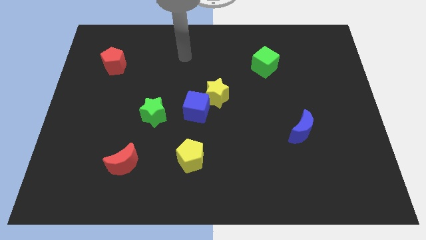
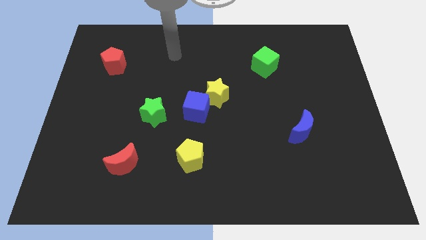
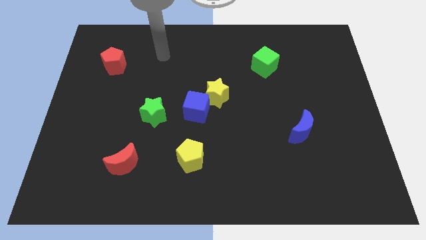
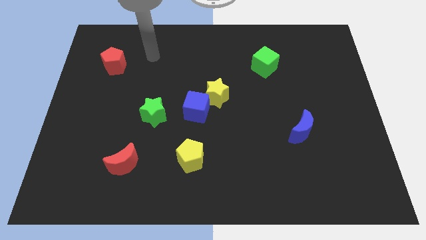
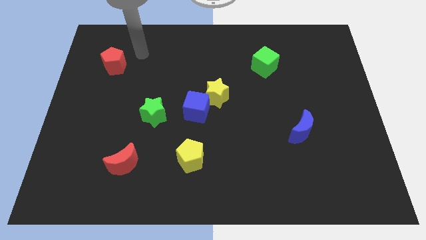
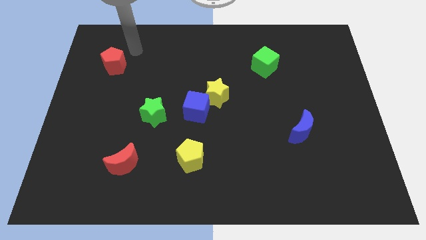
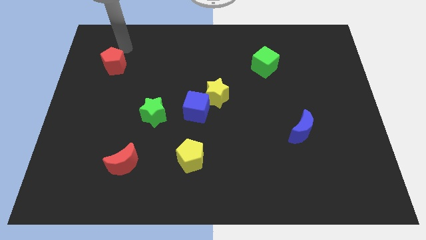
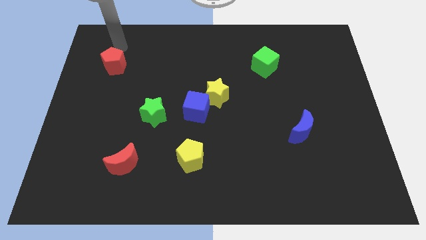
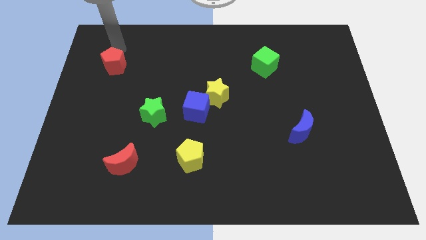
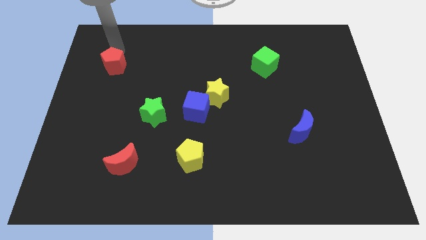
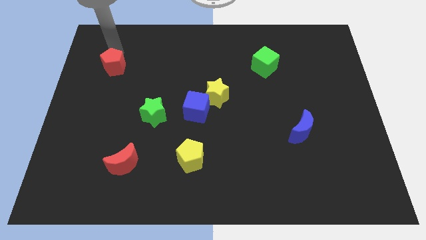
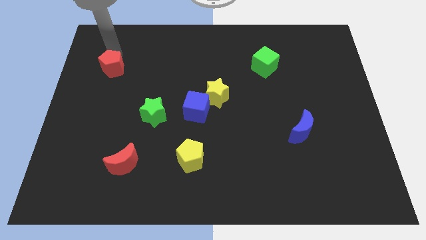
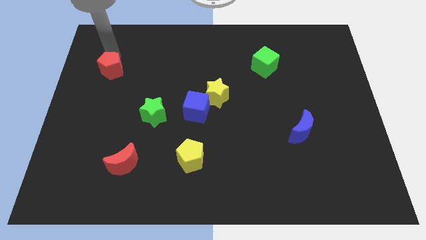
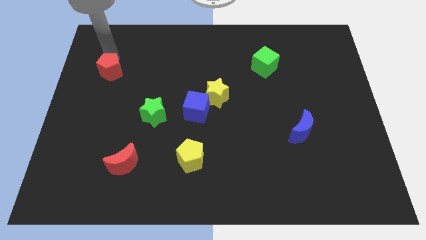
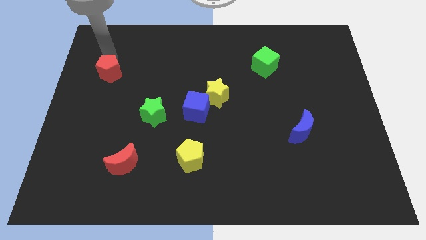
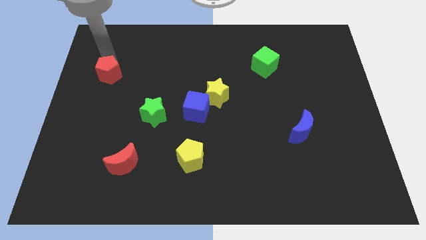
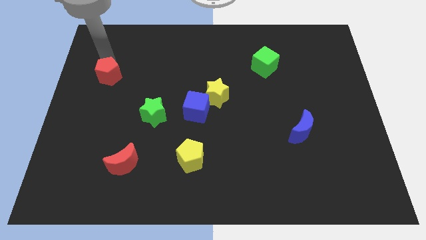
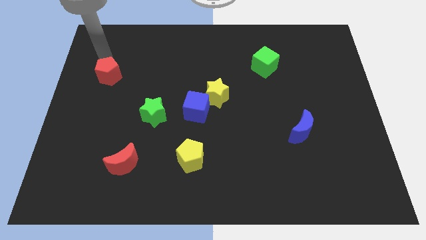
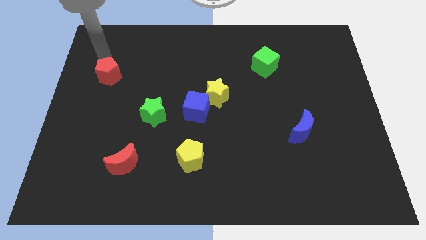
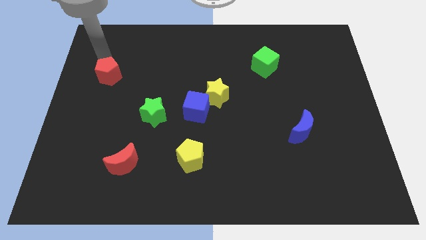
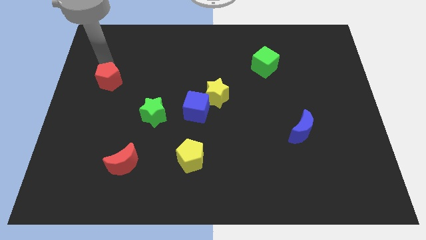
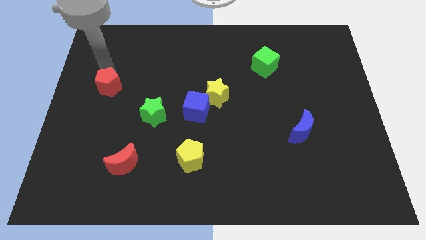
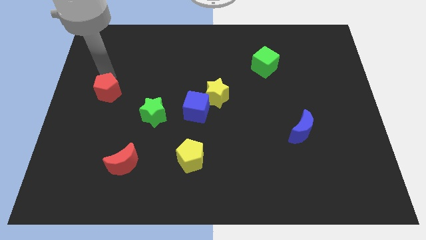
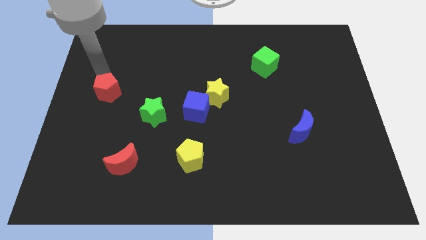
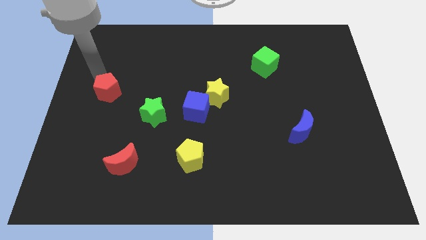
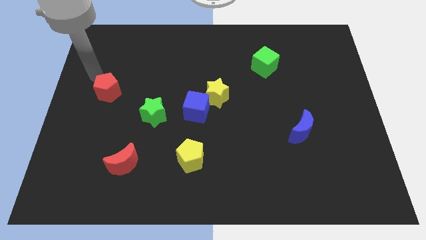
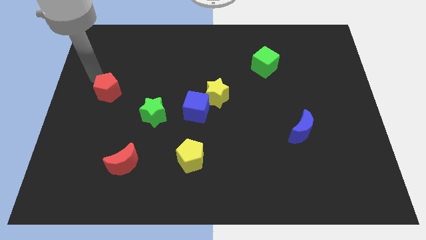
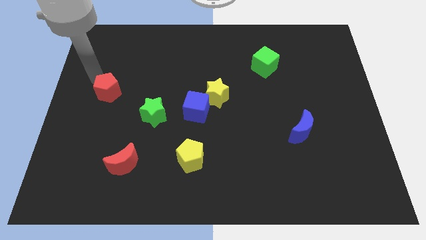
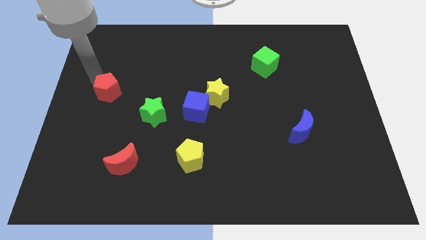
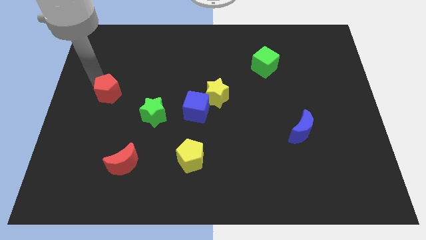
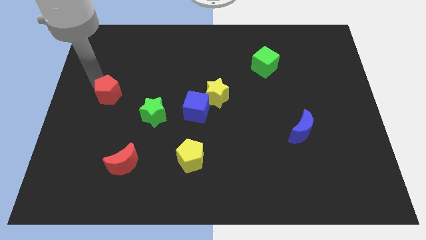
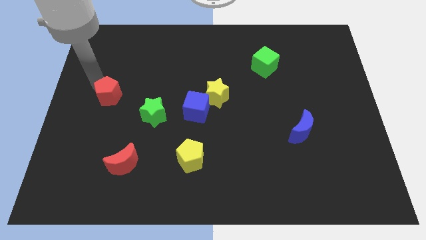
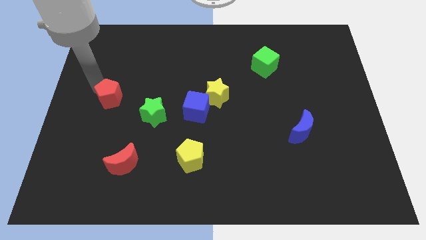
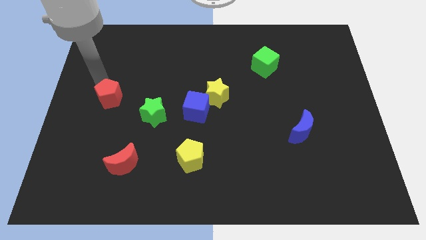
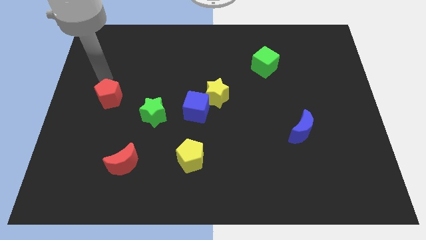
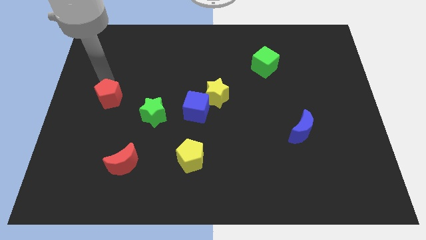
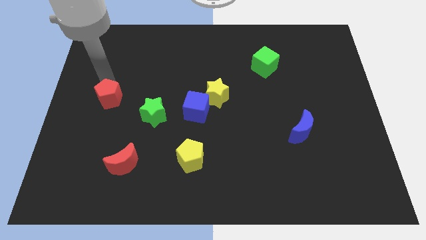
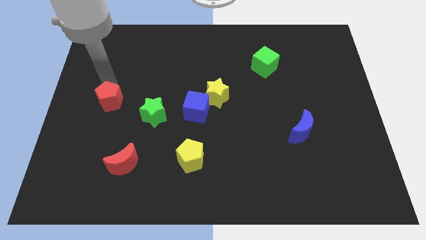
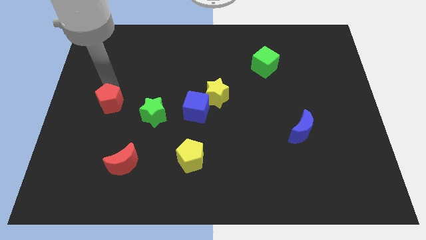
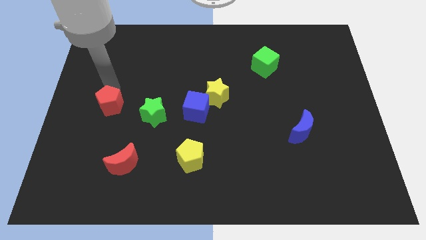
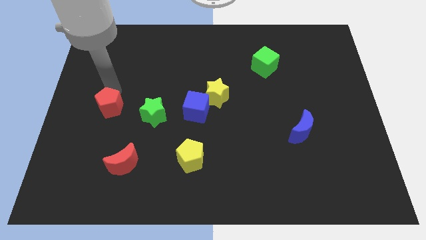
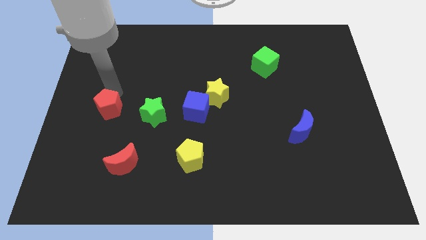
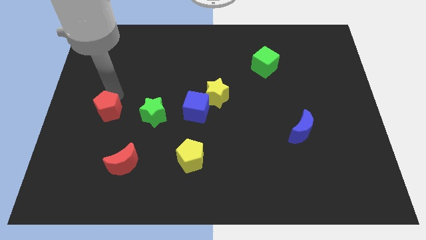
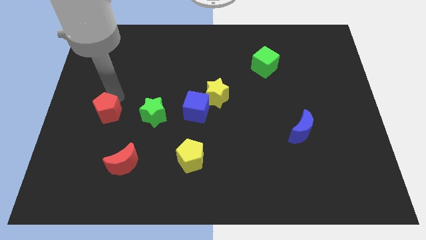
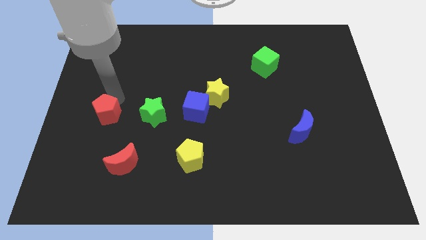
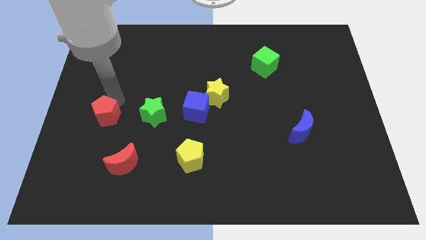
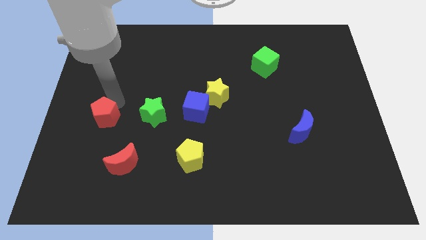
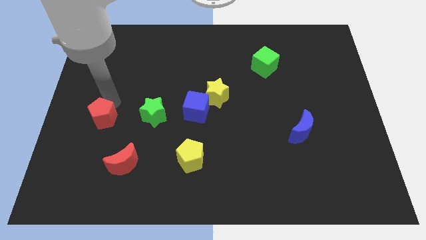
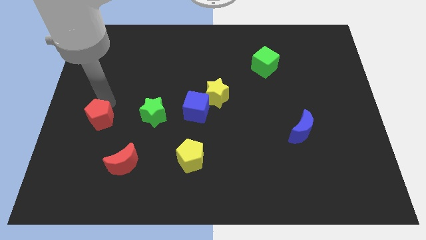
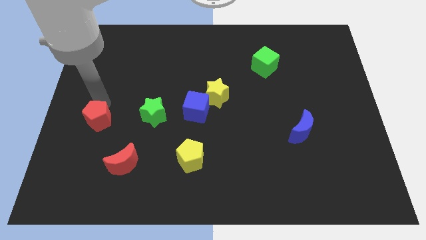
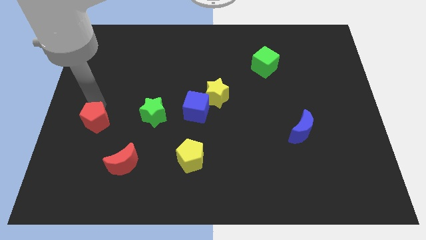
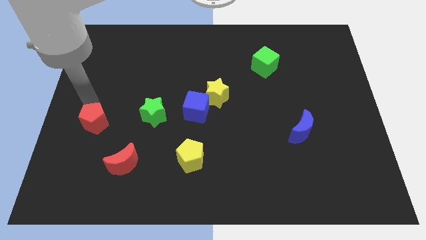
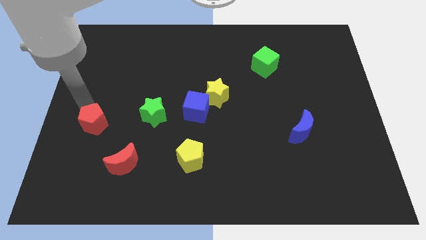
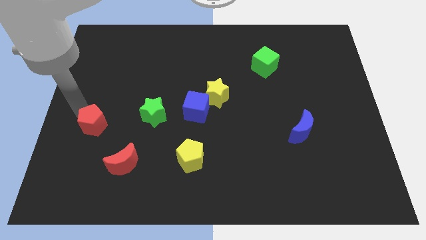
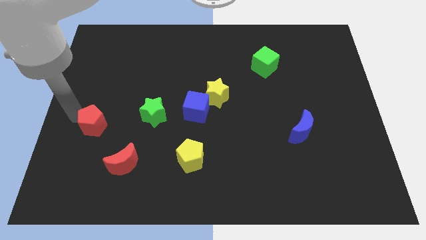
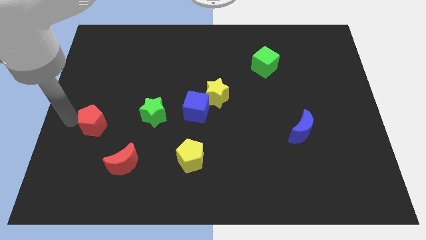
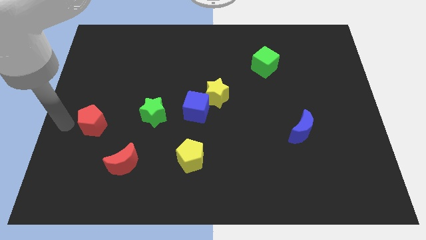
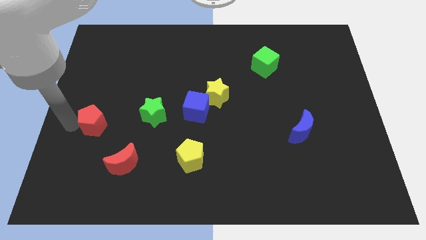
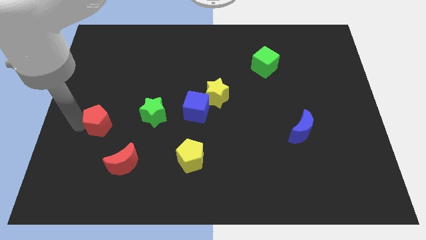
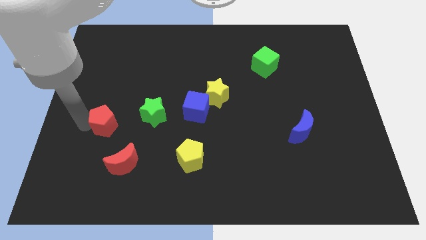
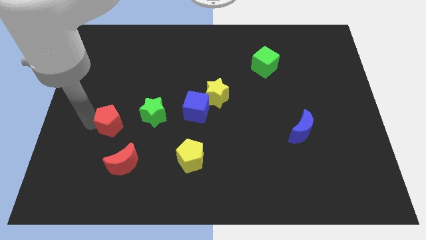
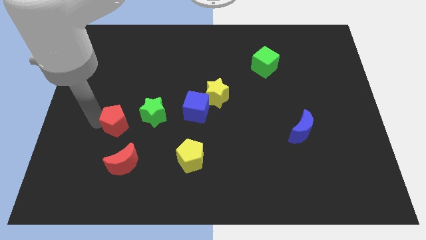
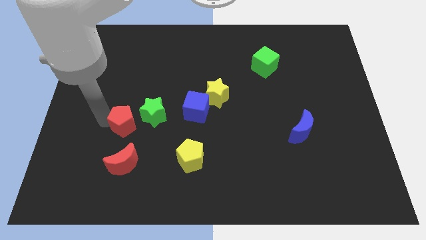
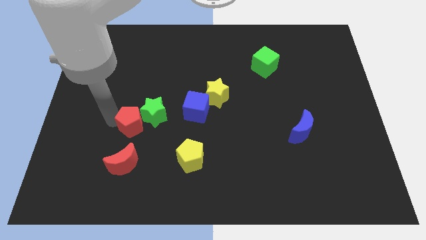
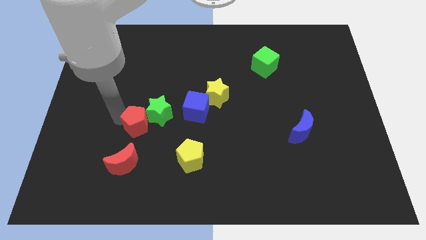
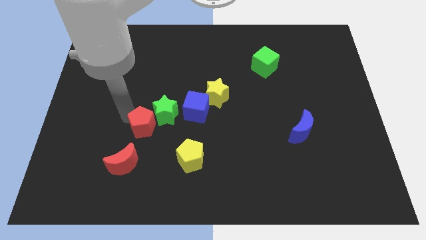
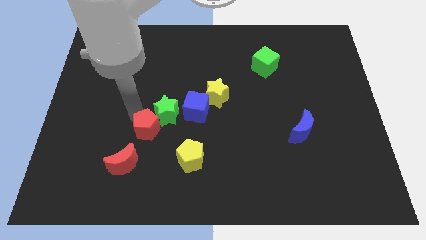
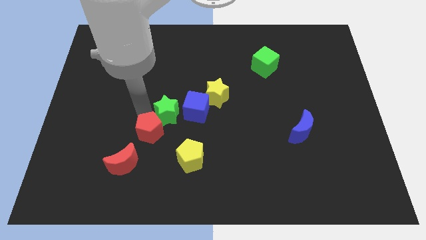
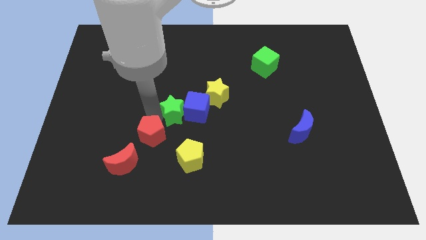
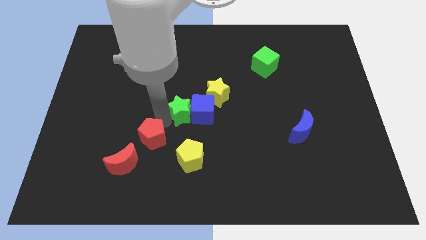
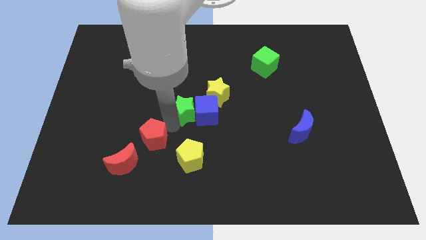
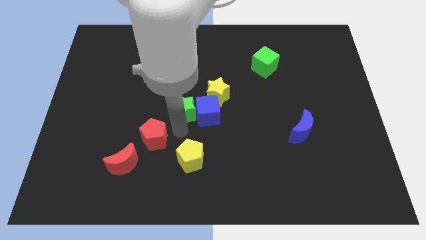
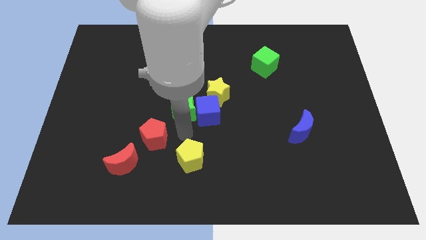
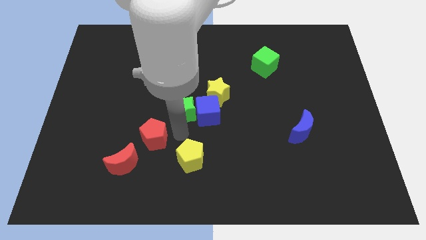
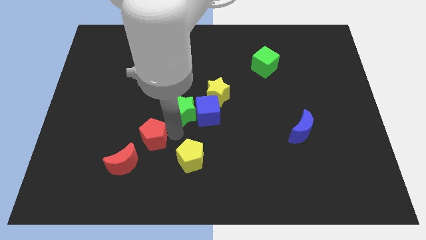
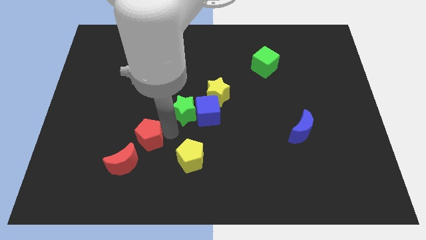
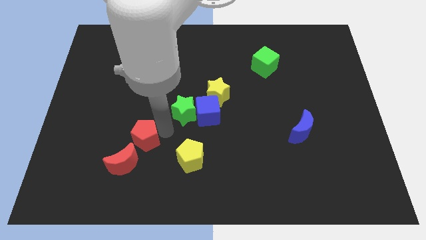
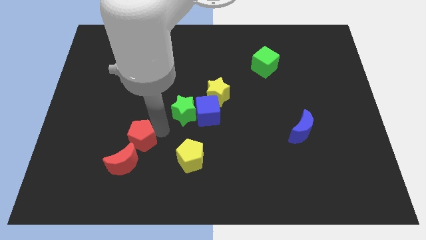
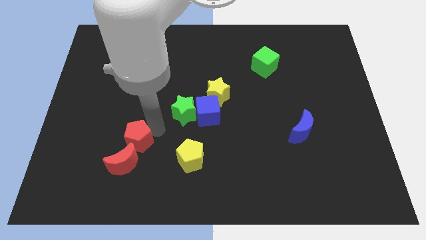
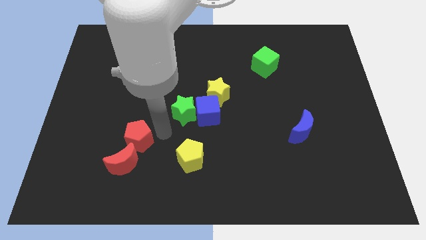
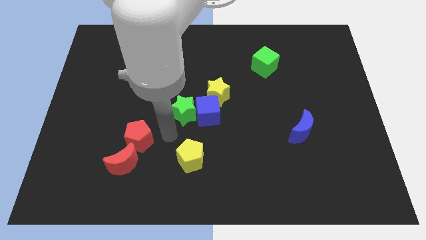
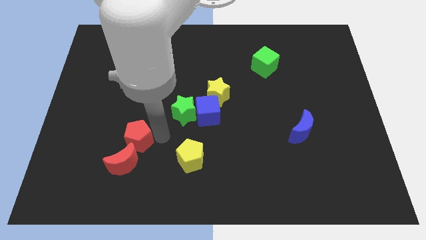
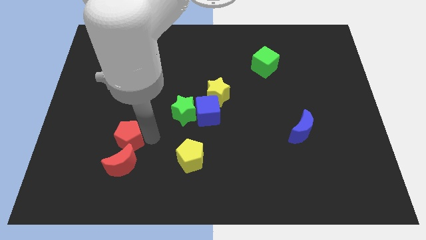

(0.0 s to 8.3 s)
push the red pentagon downwards
